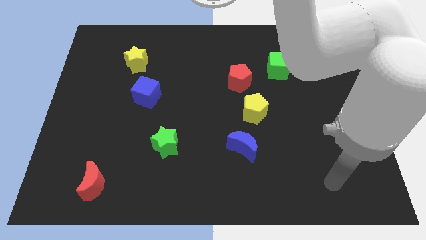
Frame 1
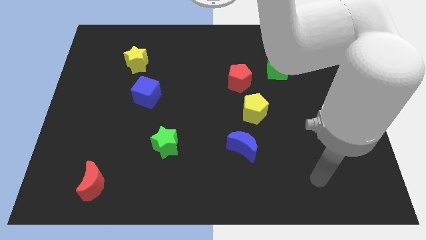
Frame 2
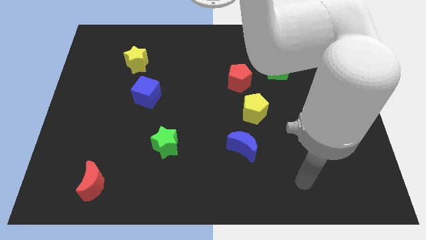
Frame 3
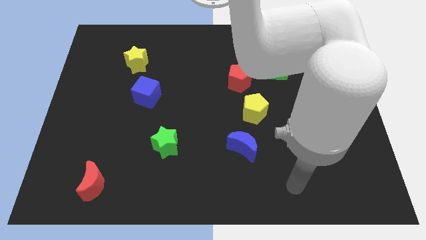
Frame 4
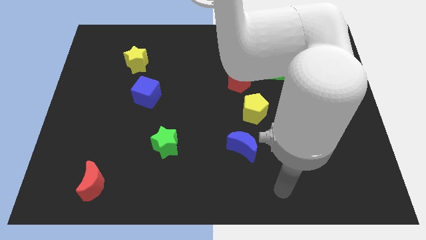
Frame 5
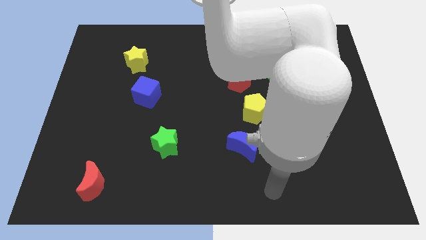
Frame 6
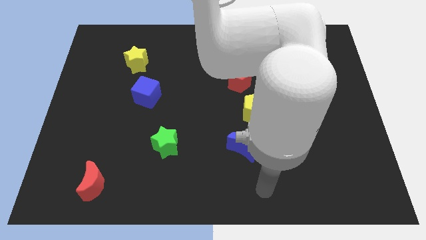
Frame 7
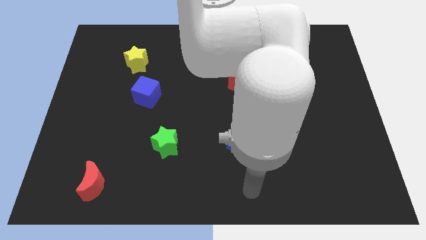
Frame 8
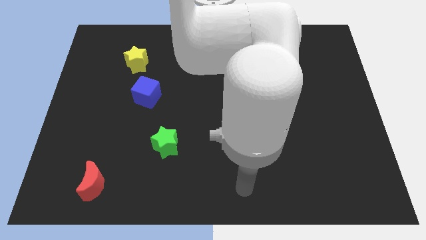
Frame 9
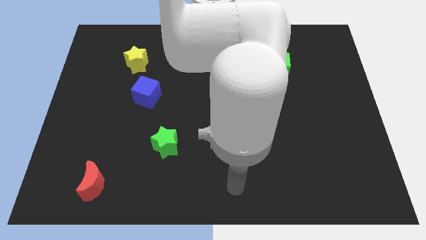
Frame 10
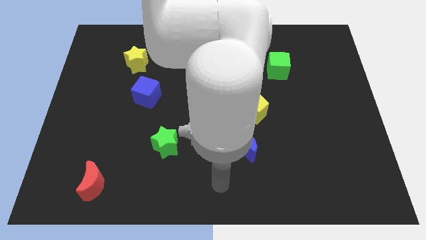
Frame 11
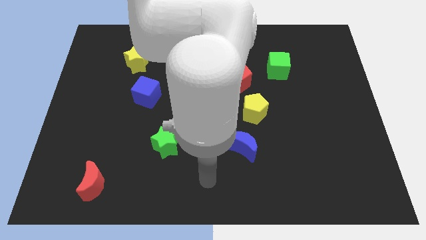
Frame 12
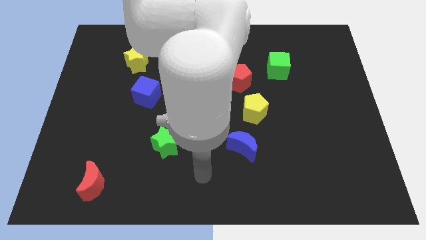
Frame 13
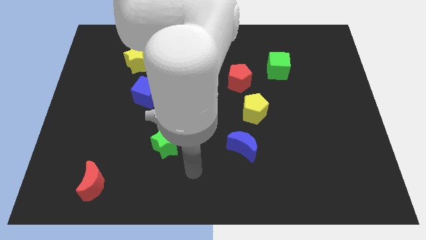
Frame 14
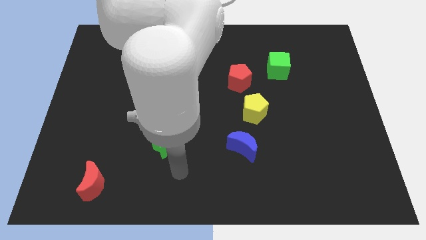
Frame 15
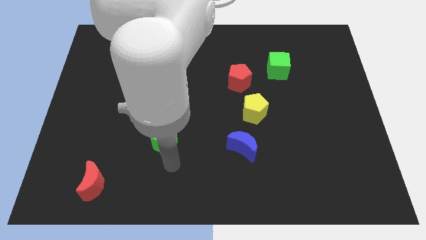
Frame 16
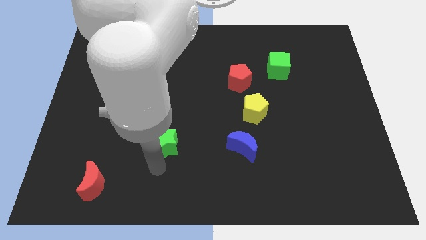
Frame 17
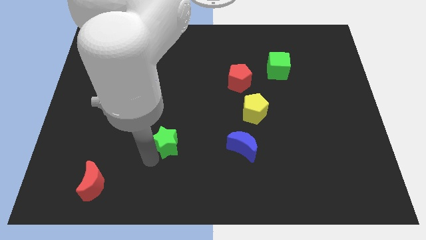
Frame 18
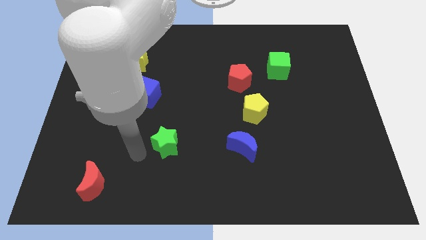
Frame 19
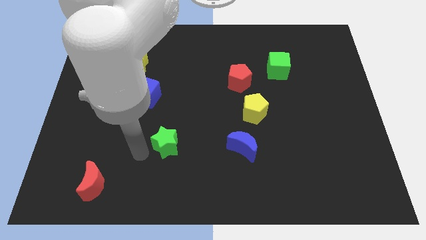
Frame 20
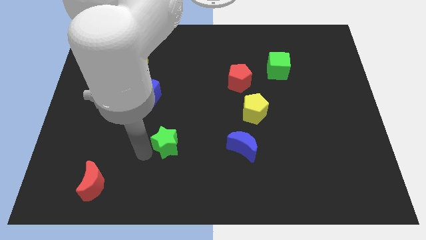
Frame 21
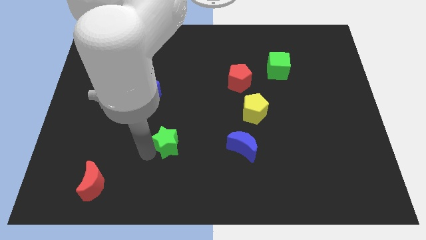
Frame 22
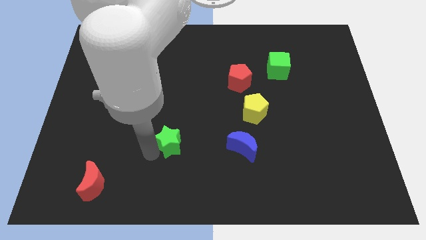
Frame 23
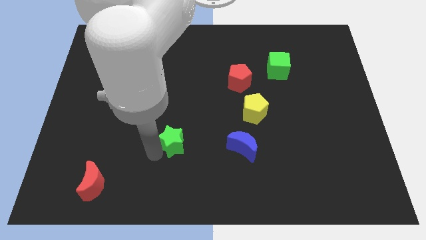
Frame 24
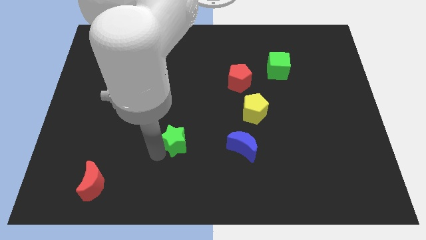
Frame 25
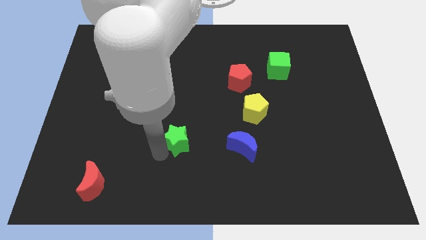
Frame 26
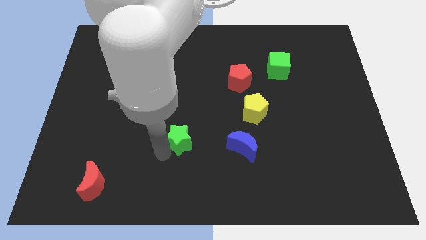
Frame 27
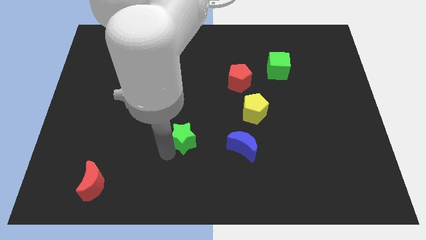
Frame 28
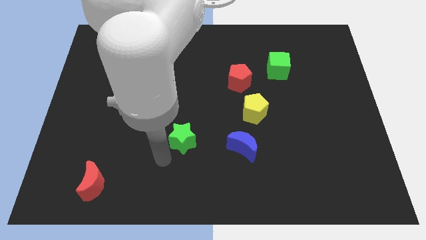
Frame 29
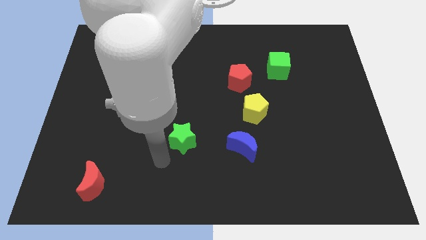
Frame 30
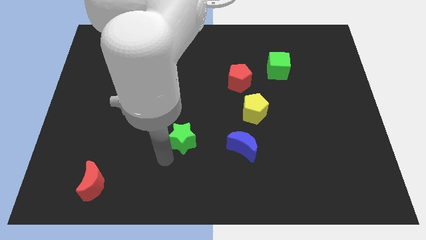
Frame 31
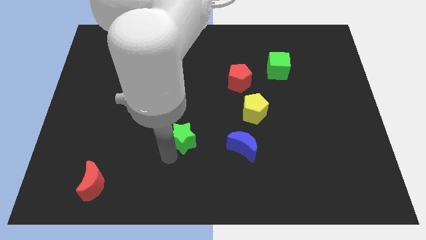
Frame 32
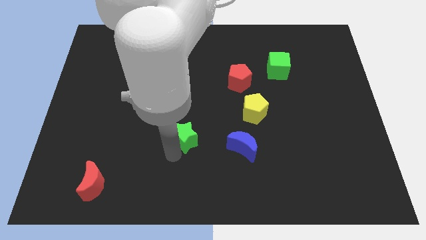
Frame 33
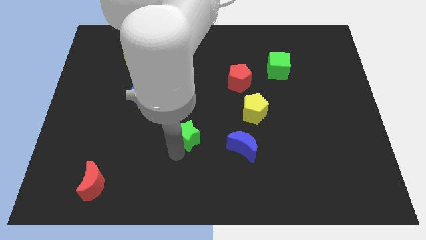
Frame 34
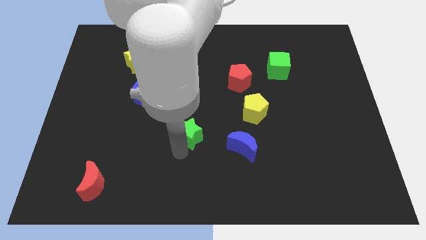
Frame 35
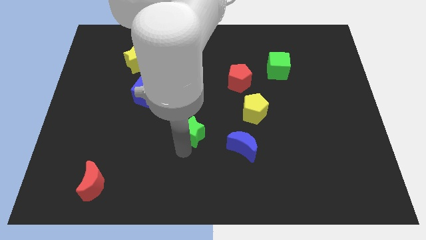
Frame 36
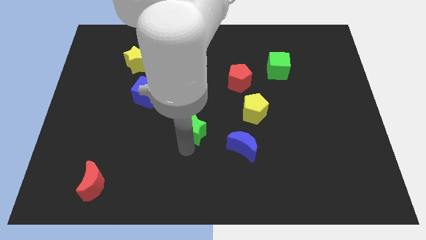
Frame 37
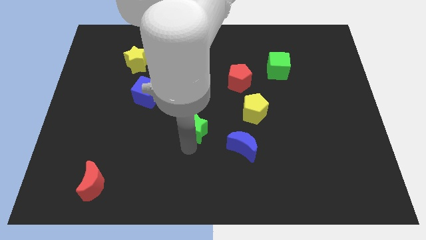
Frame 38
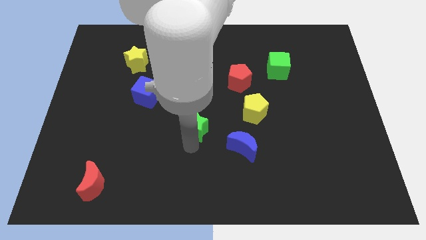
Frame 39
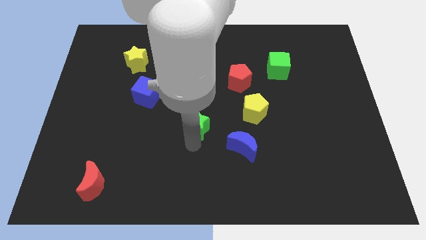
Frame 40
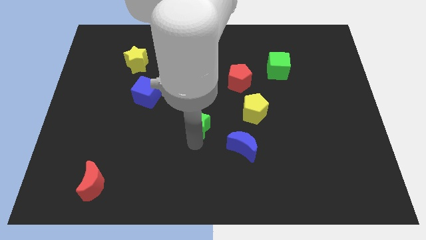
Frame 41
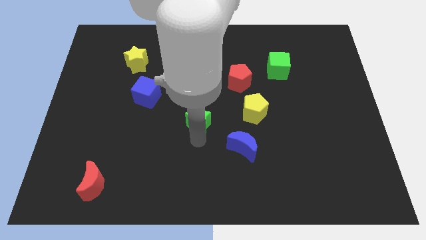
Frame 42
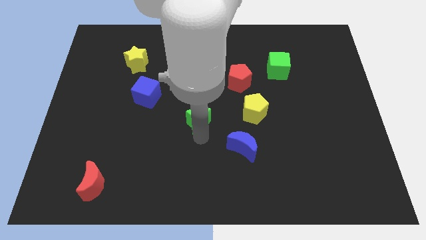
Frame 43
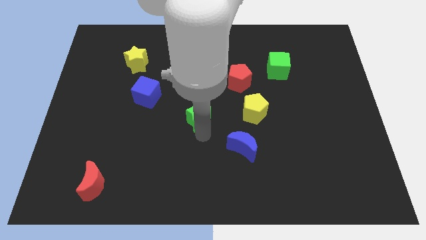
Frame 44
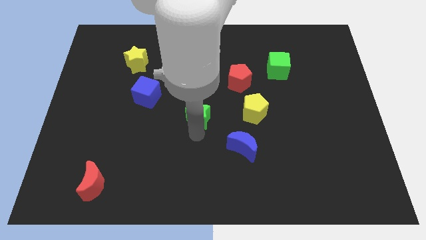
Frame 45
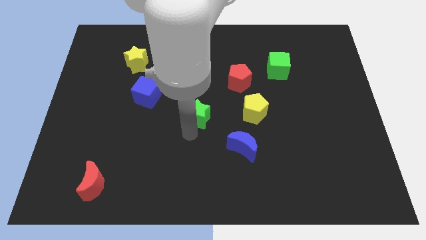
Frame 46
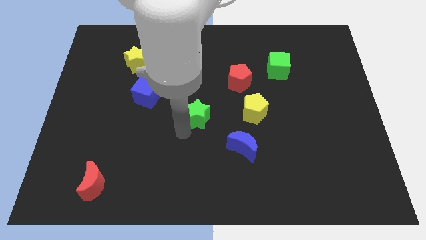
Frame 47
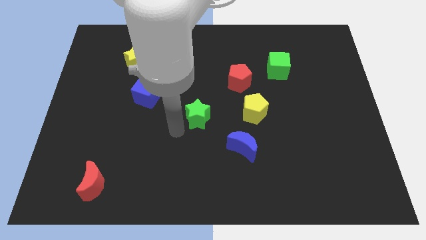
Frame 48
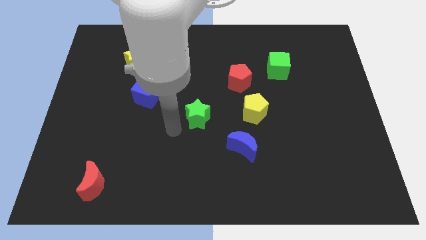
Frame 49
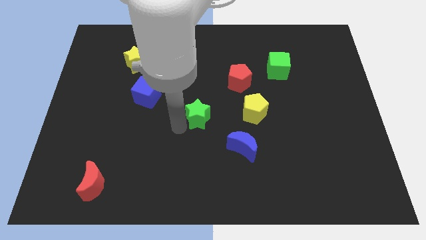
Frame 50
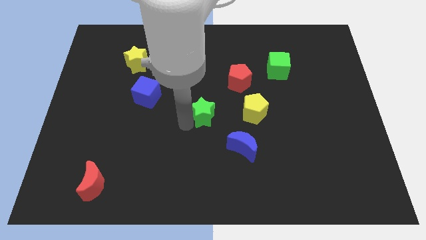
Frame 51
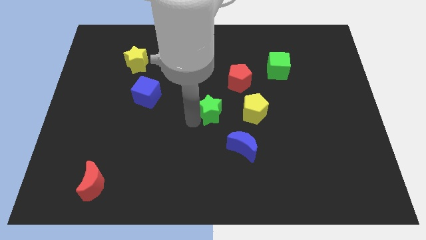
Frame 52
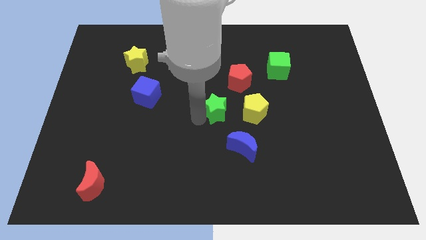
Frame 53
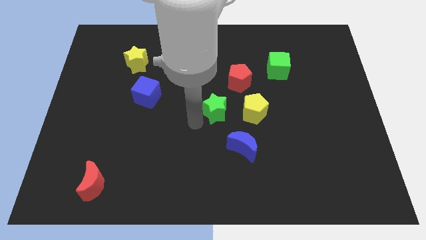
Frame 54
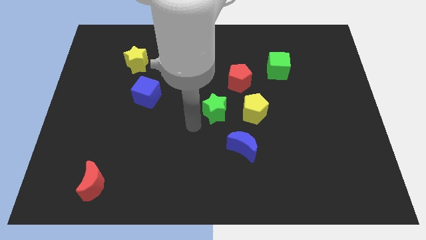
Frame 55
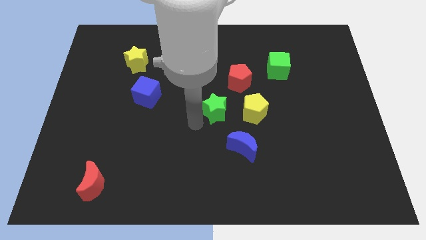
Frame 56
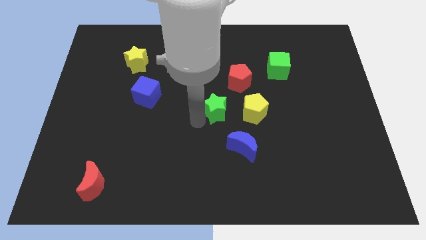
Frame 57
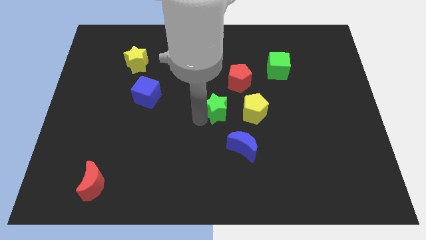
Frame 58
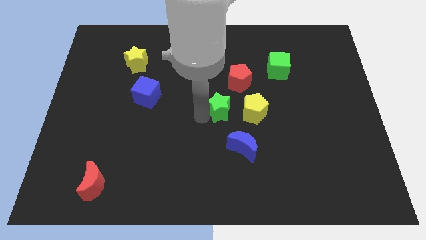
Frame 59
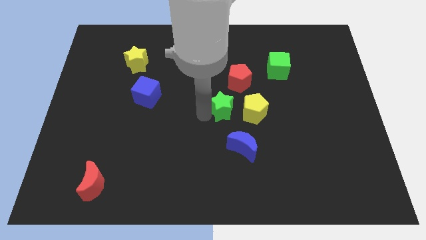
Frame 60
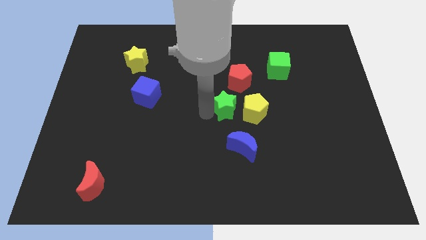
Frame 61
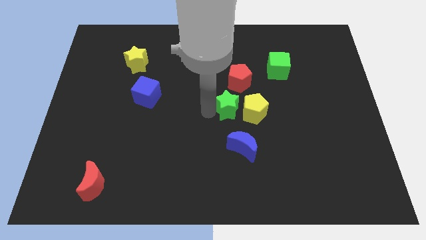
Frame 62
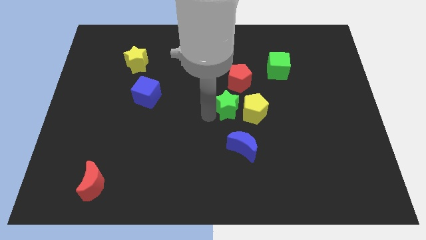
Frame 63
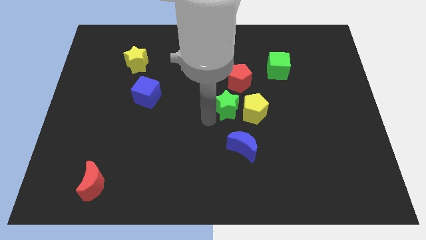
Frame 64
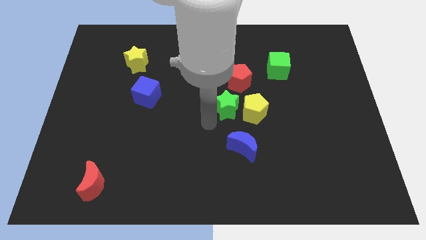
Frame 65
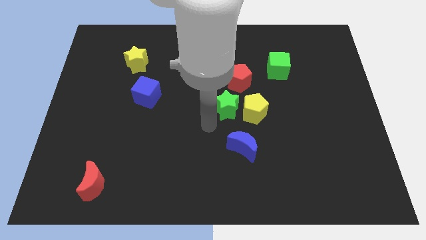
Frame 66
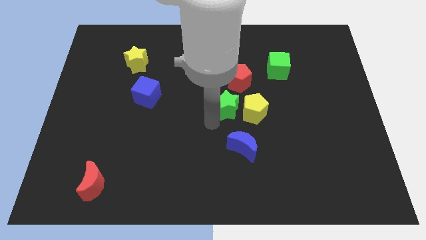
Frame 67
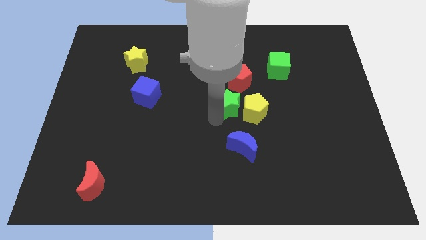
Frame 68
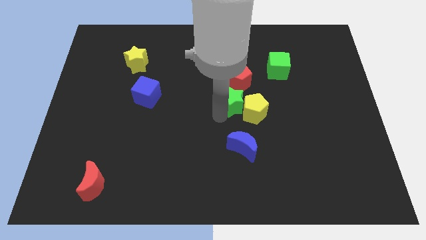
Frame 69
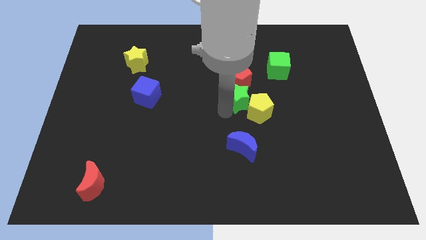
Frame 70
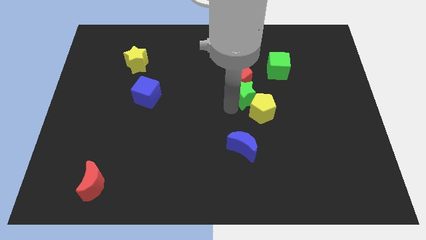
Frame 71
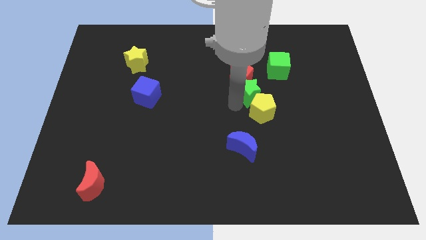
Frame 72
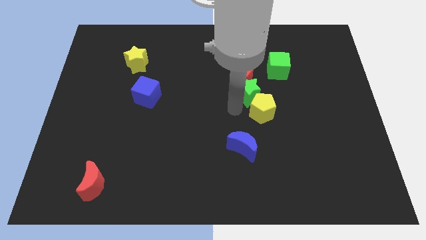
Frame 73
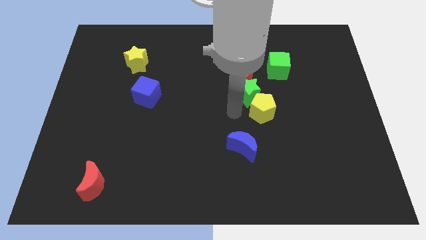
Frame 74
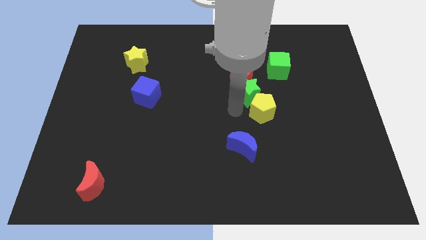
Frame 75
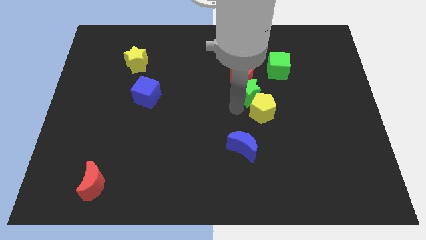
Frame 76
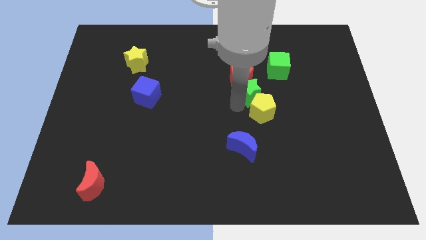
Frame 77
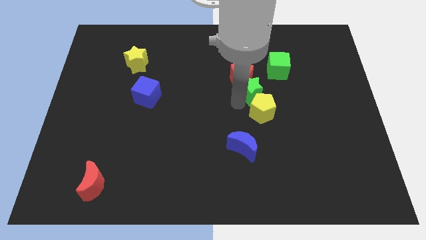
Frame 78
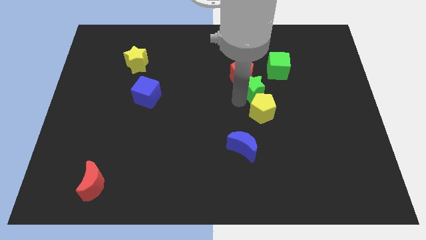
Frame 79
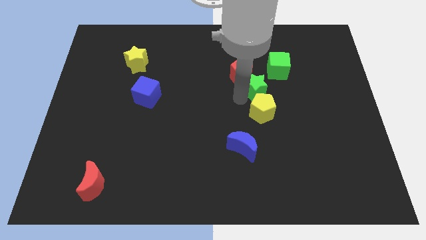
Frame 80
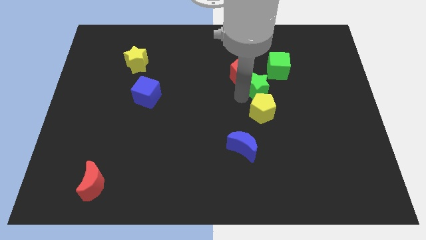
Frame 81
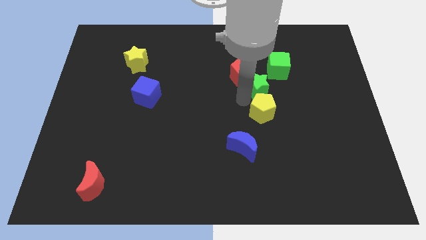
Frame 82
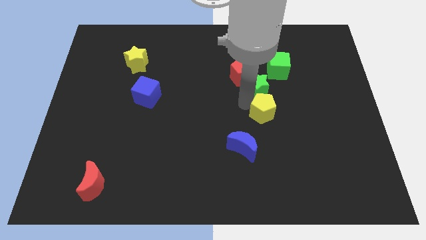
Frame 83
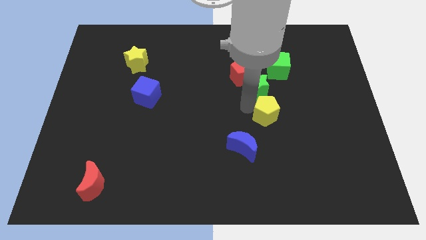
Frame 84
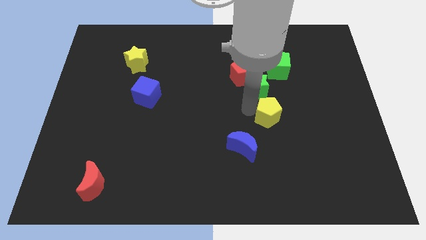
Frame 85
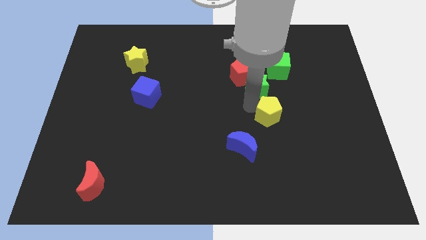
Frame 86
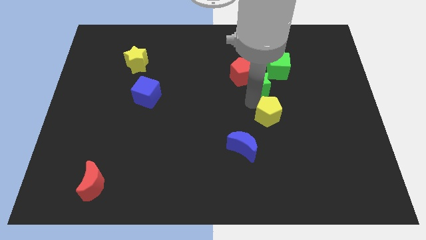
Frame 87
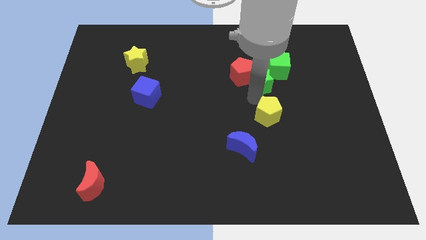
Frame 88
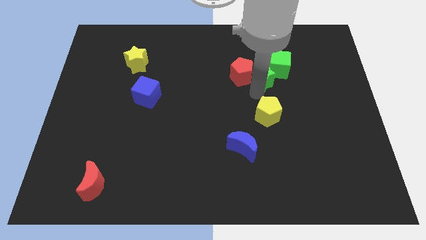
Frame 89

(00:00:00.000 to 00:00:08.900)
slide the green star next to the green cube
